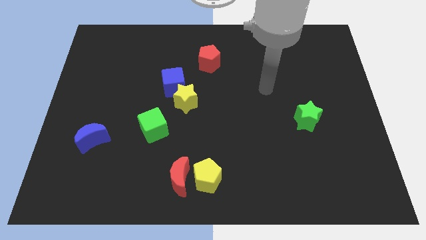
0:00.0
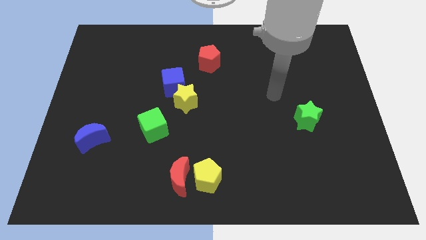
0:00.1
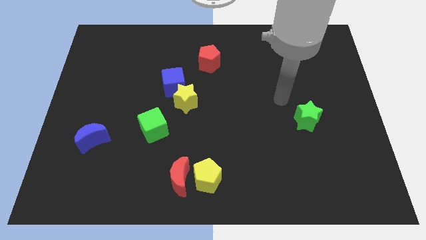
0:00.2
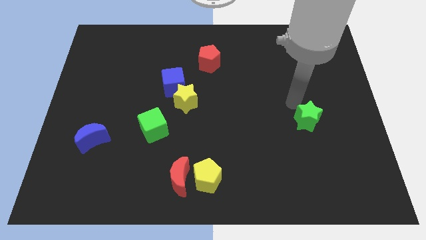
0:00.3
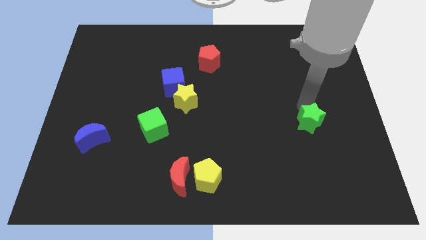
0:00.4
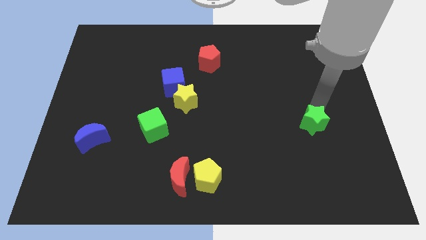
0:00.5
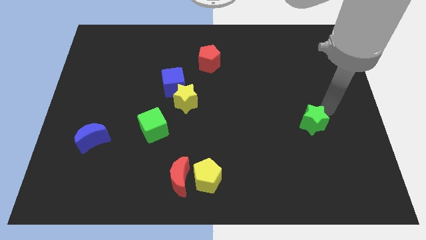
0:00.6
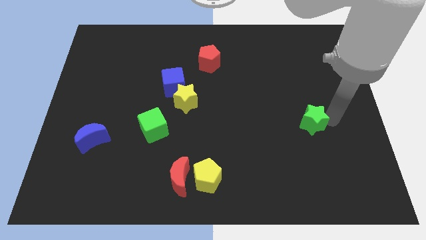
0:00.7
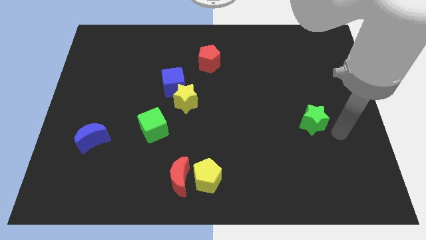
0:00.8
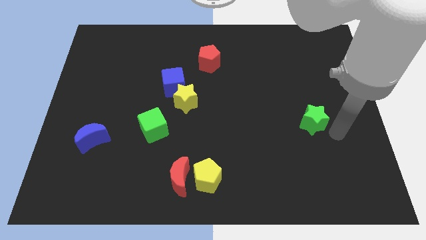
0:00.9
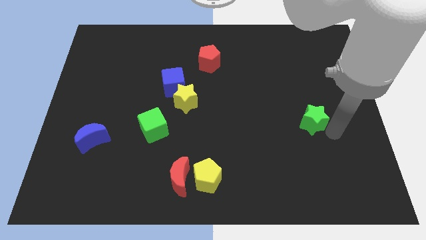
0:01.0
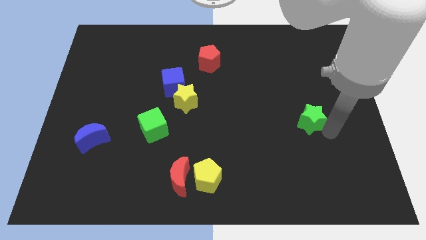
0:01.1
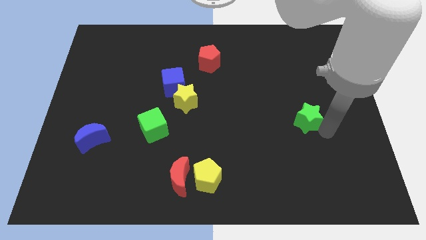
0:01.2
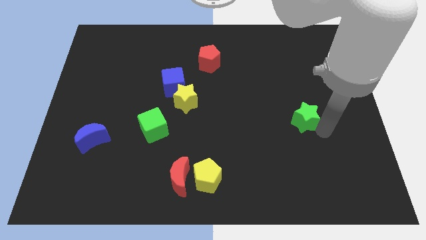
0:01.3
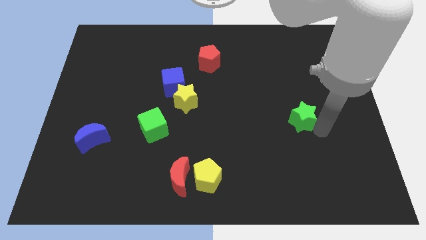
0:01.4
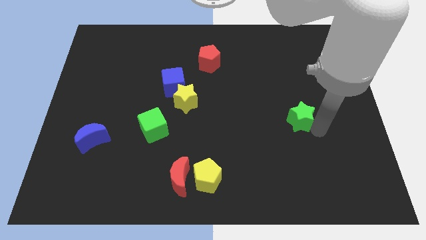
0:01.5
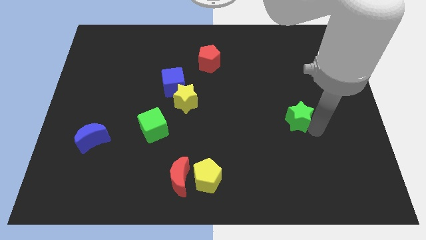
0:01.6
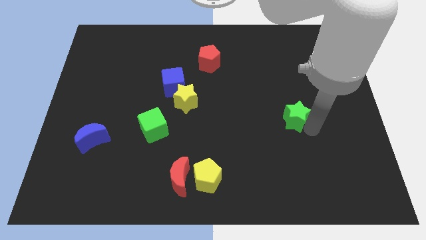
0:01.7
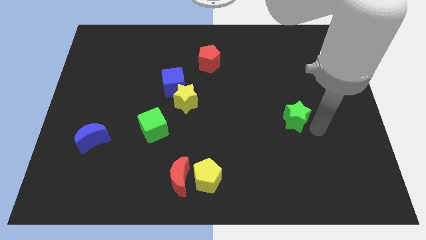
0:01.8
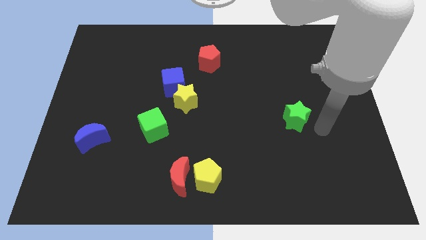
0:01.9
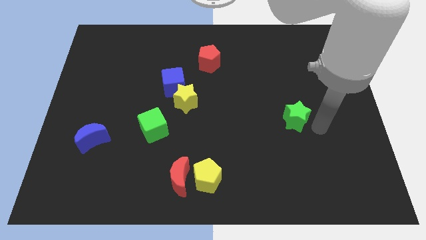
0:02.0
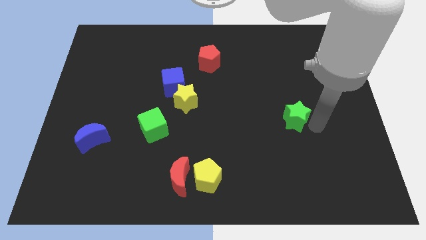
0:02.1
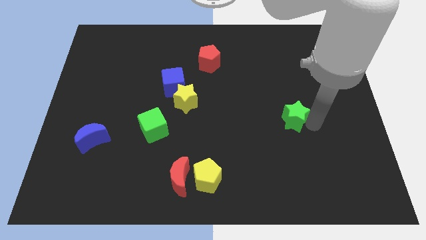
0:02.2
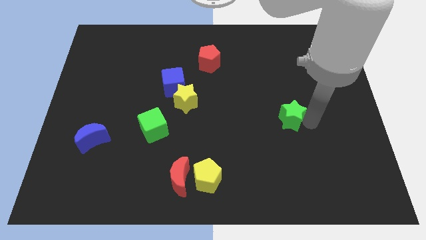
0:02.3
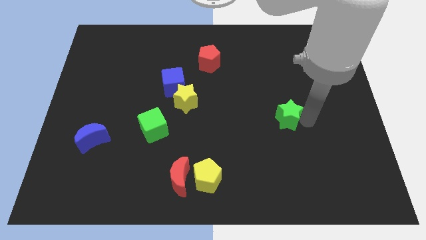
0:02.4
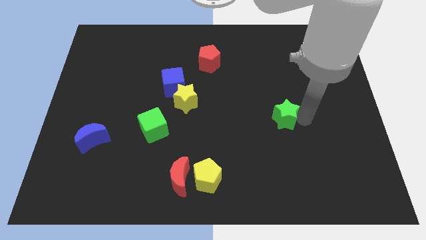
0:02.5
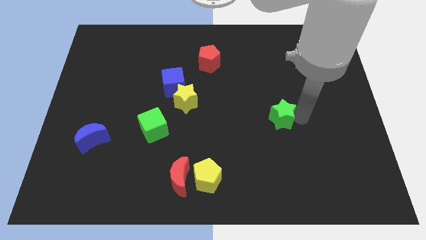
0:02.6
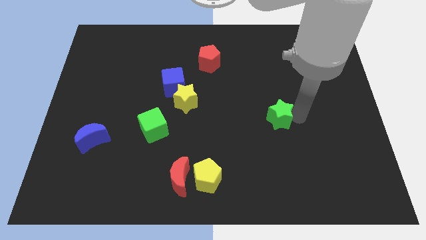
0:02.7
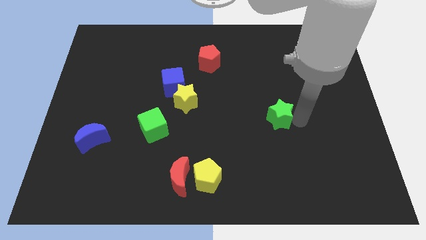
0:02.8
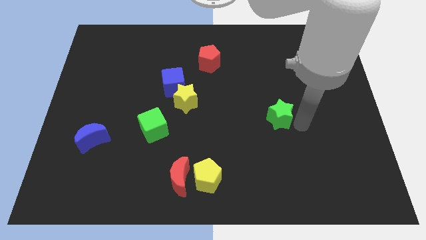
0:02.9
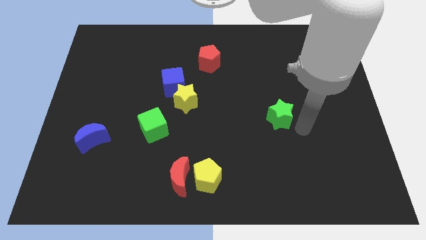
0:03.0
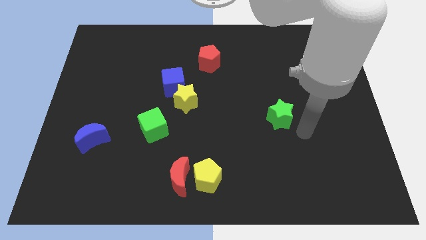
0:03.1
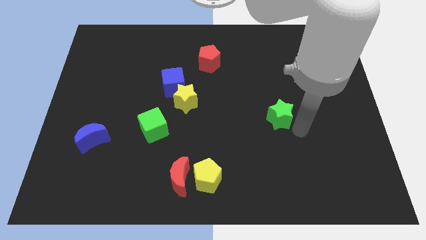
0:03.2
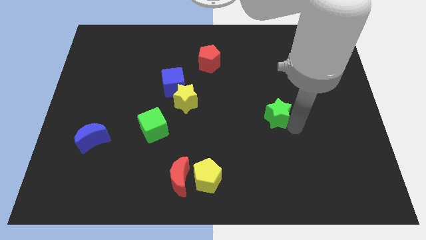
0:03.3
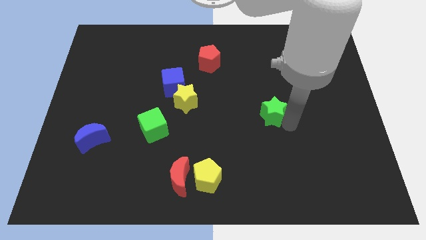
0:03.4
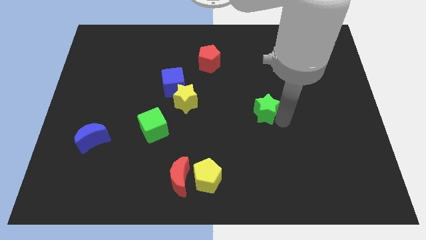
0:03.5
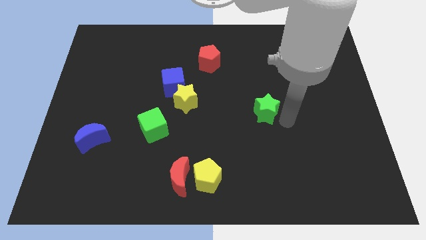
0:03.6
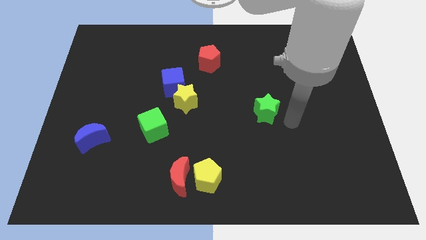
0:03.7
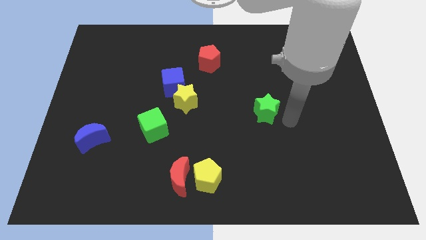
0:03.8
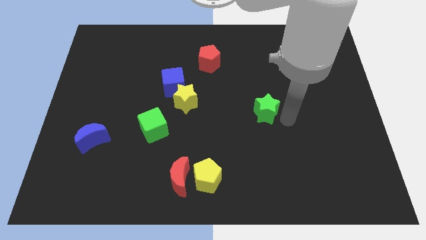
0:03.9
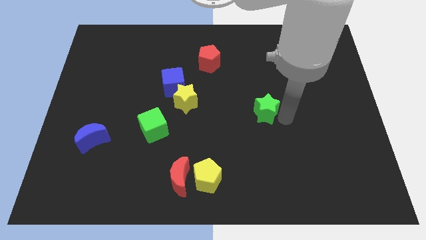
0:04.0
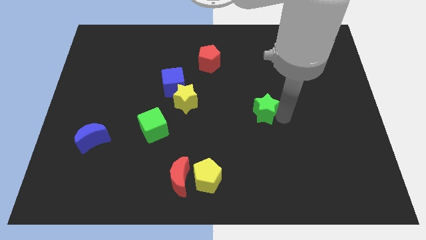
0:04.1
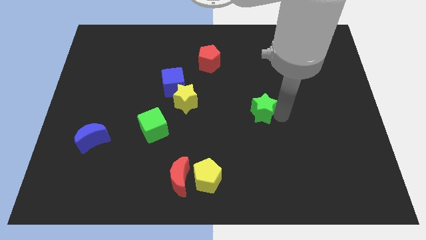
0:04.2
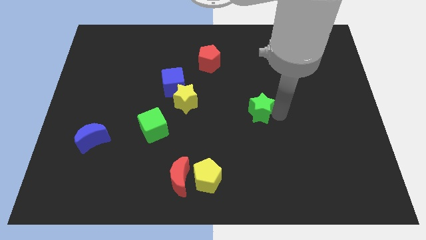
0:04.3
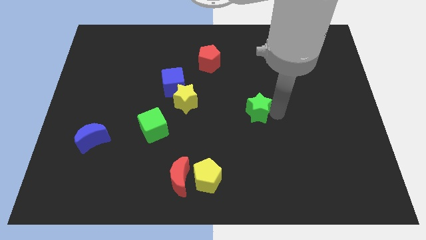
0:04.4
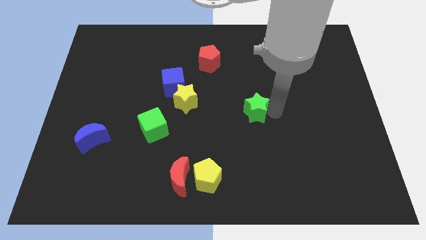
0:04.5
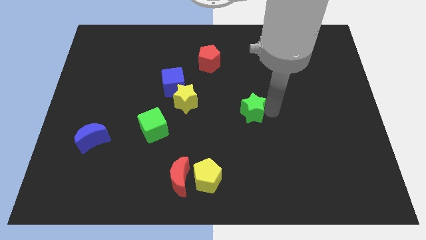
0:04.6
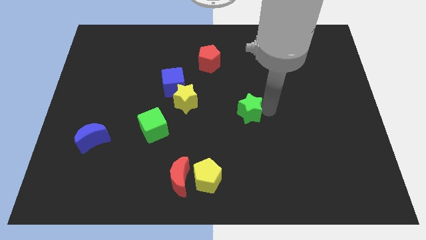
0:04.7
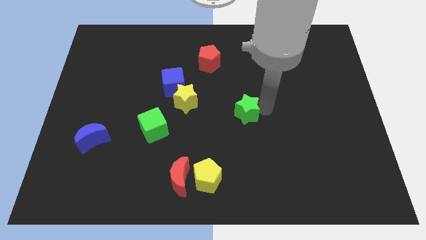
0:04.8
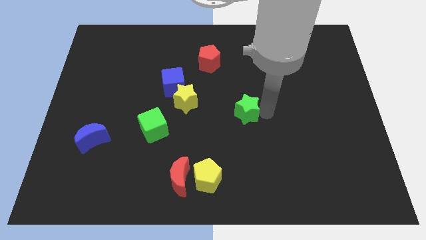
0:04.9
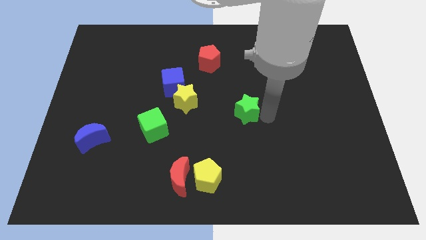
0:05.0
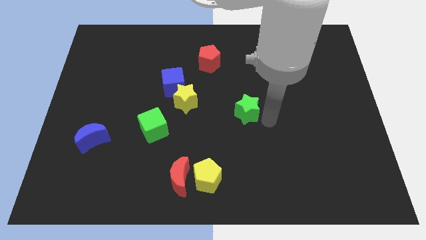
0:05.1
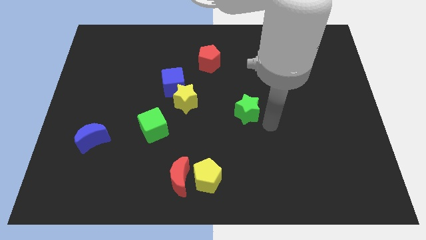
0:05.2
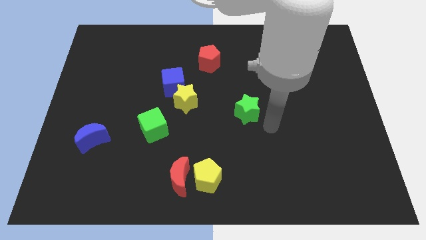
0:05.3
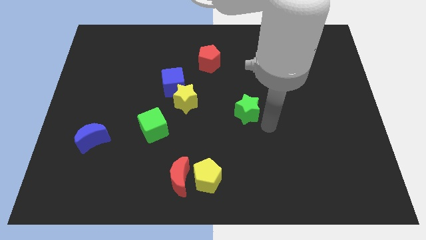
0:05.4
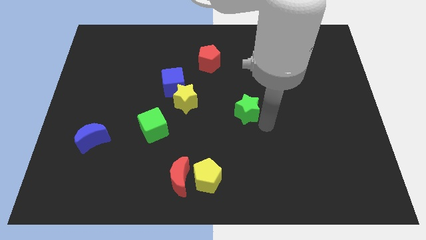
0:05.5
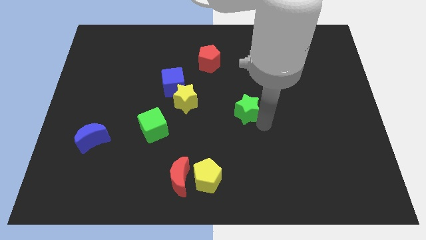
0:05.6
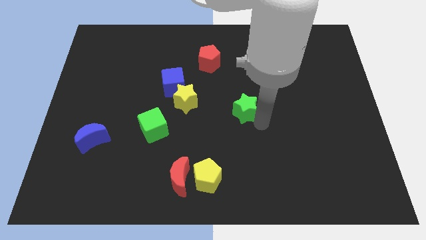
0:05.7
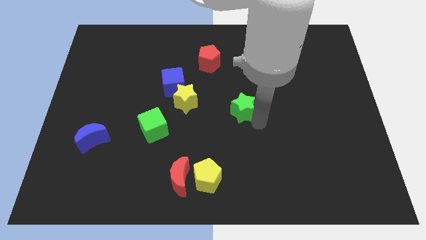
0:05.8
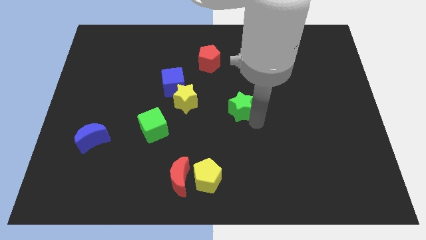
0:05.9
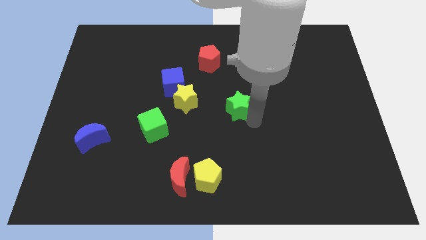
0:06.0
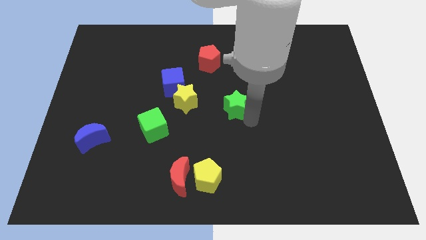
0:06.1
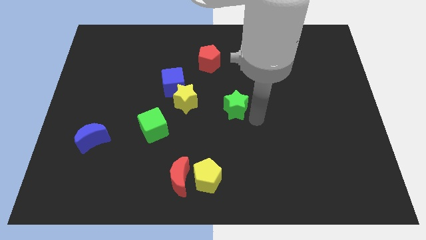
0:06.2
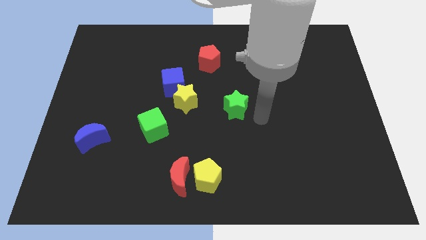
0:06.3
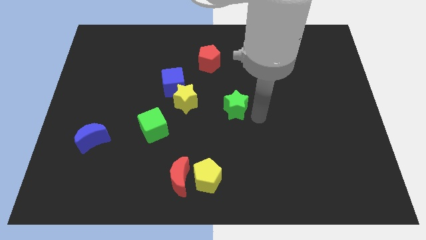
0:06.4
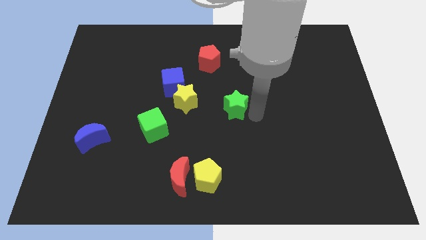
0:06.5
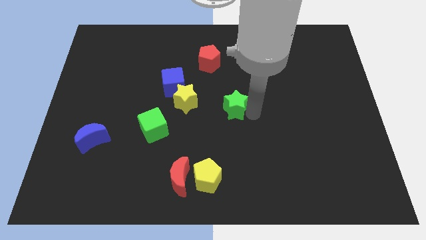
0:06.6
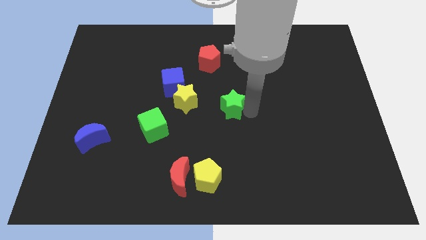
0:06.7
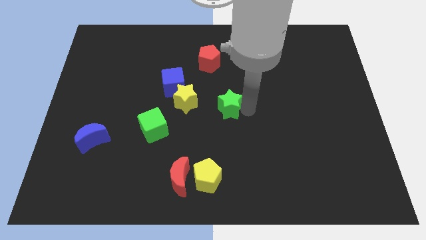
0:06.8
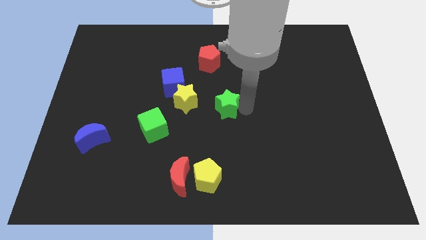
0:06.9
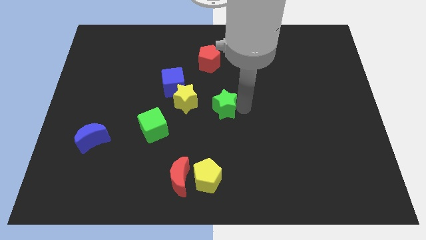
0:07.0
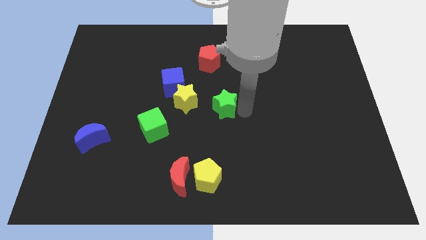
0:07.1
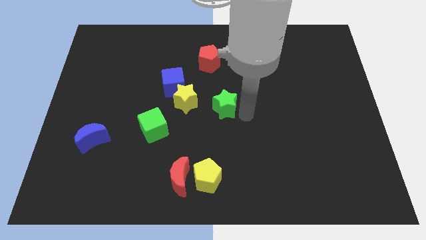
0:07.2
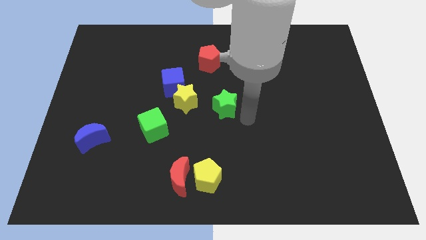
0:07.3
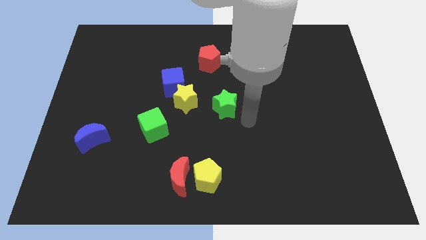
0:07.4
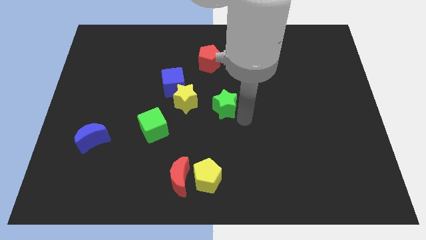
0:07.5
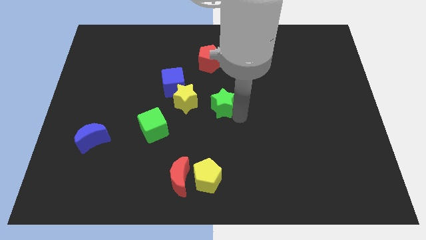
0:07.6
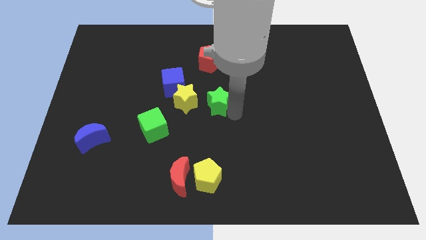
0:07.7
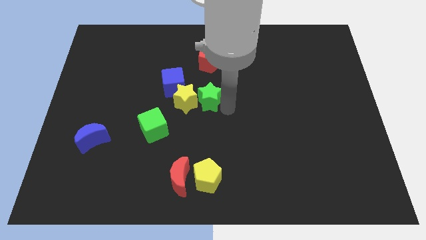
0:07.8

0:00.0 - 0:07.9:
slide the green star next to the yellow star
